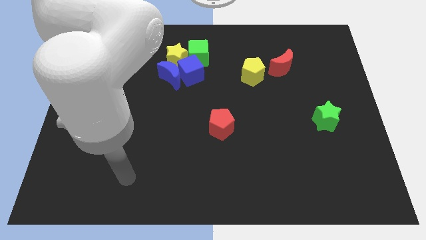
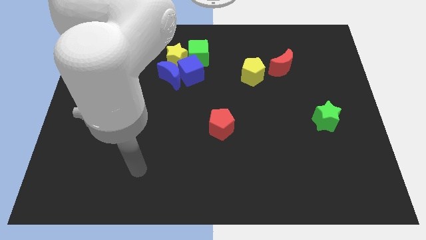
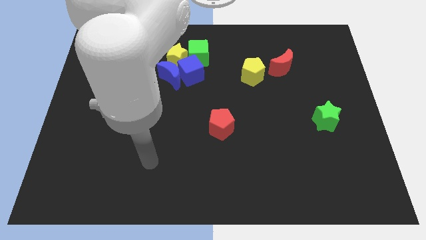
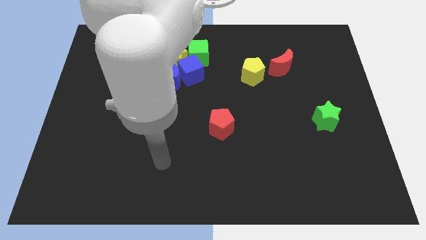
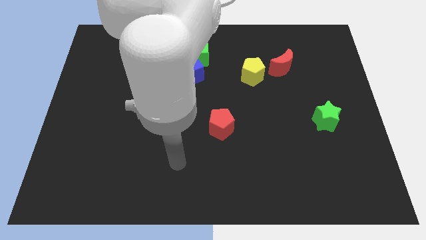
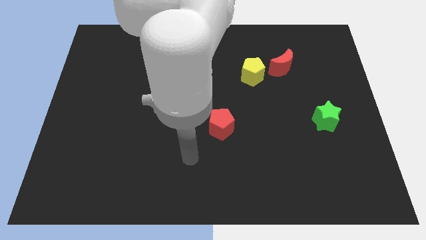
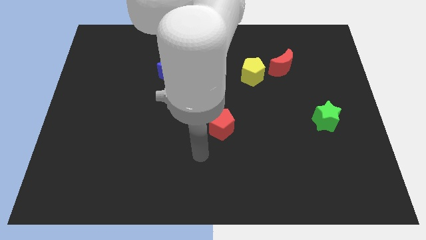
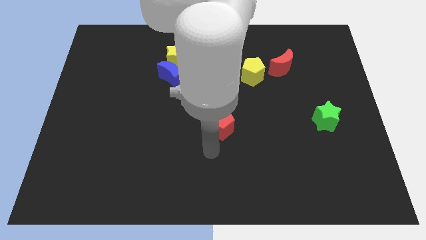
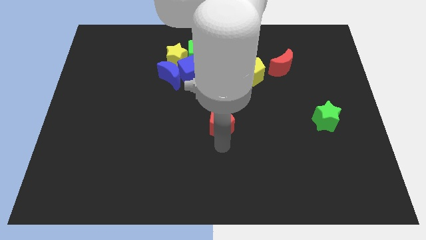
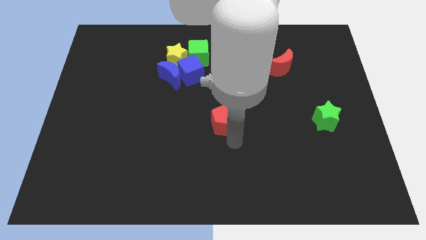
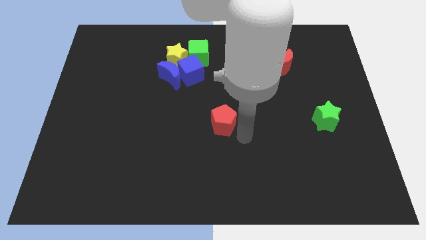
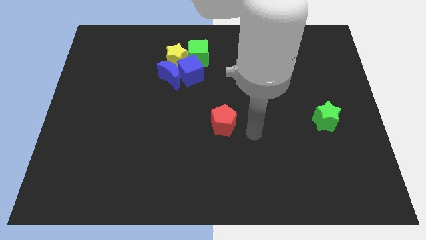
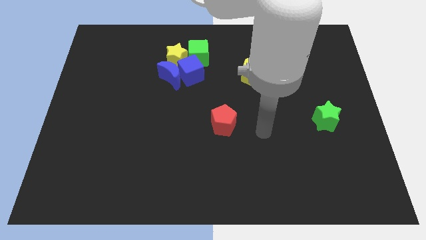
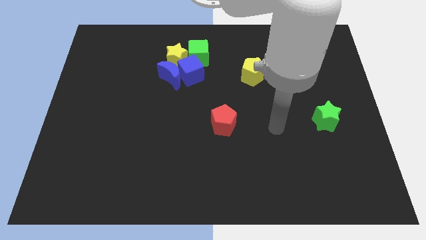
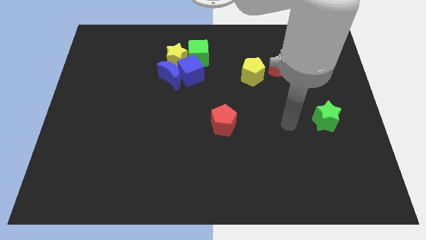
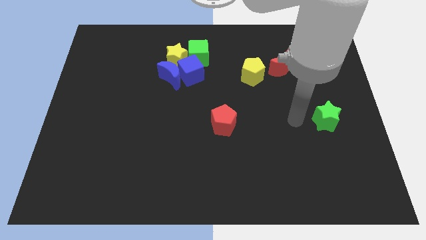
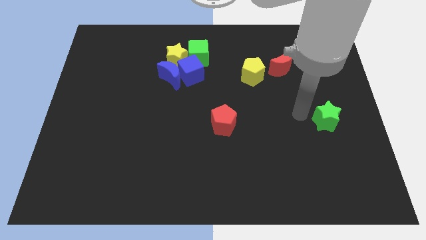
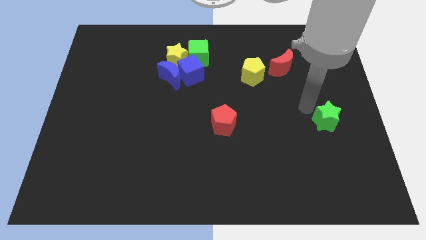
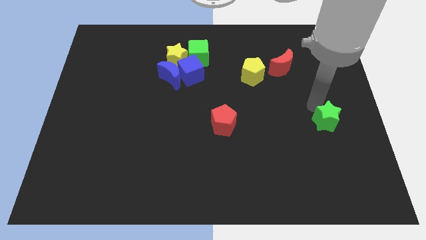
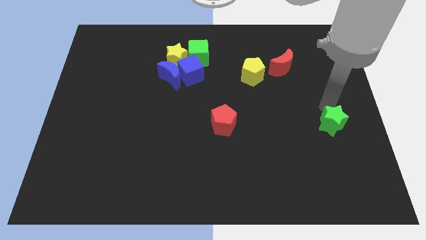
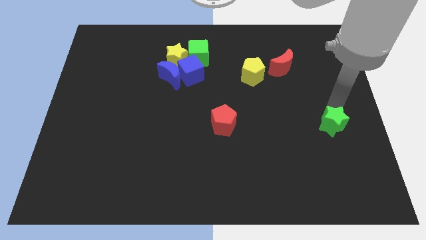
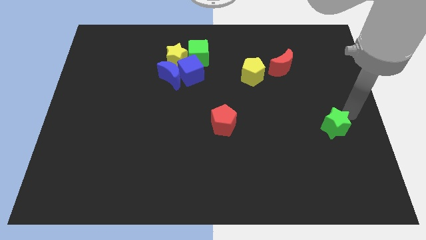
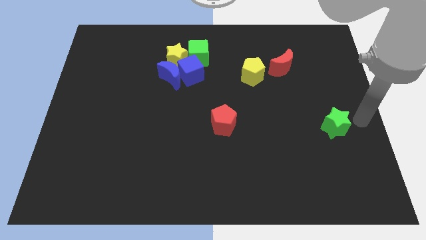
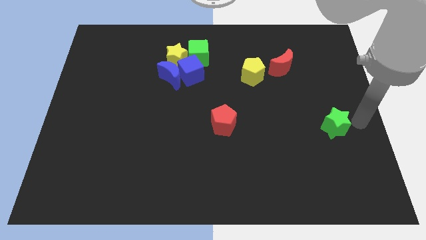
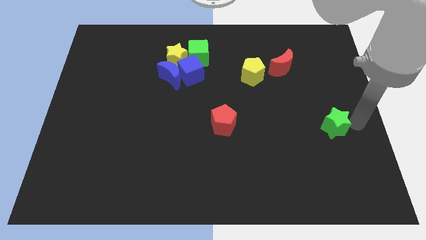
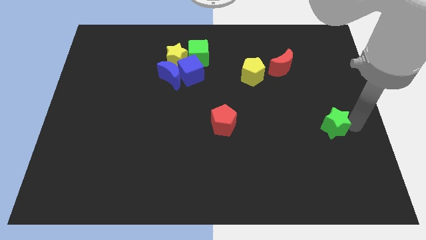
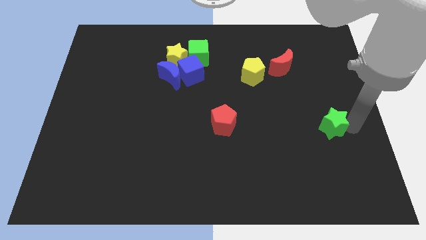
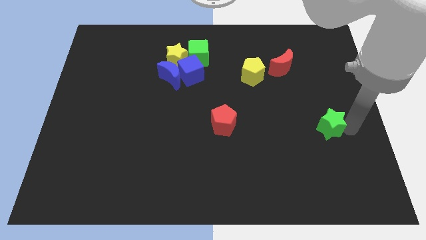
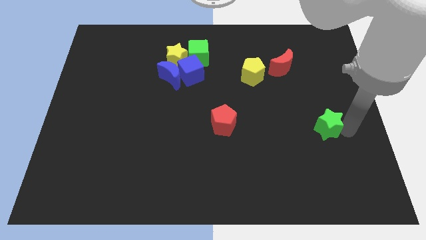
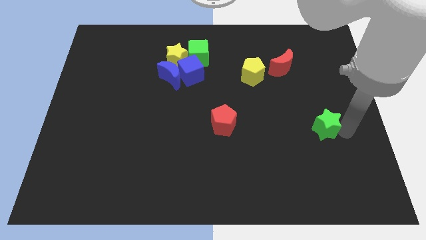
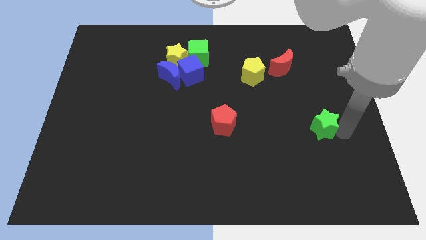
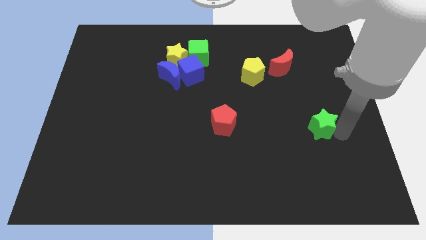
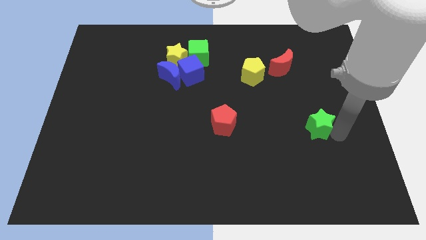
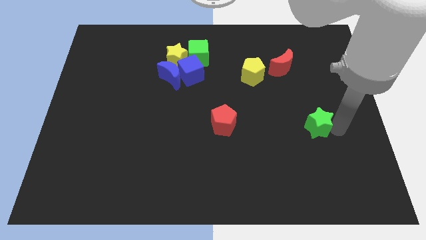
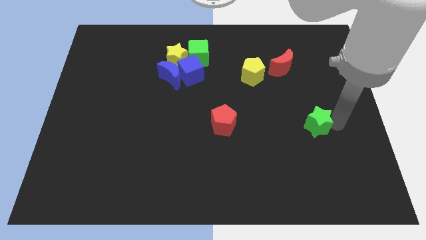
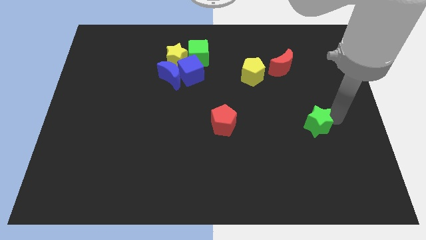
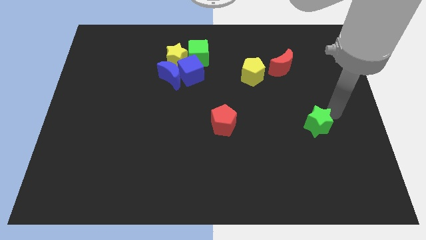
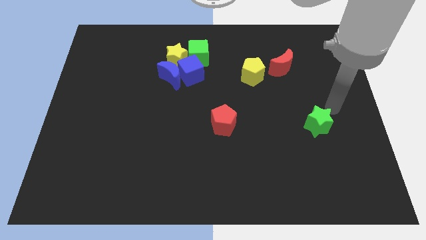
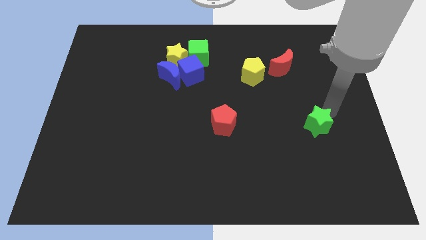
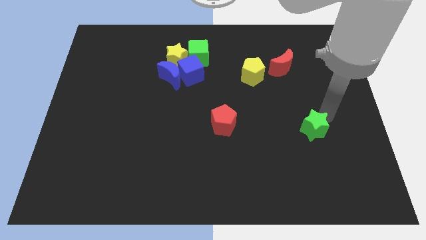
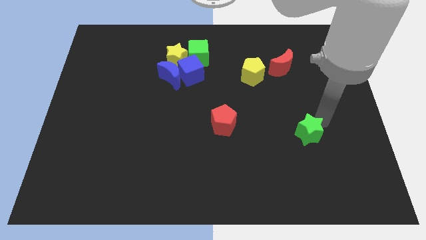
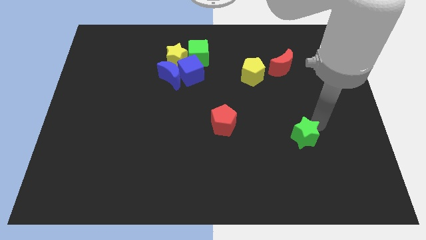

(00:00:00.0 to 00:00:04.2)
move the green star slightly diagonally downwards and left

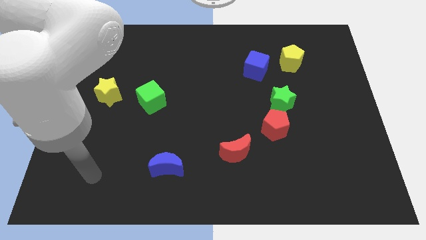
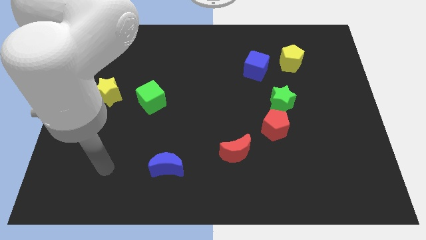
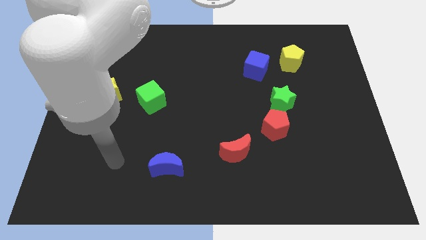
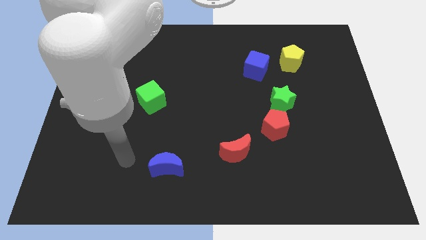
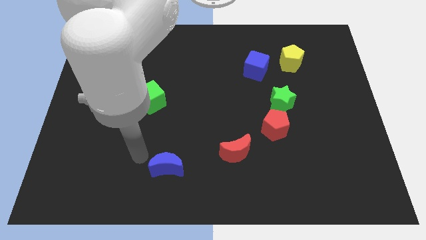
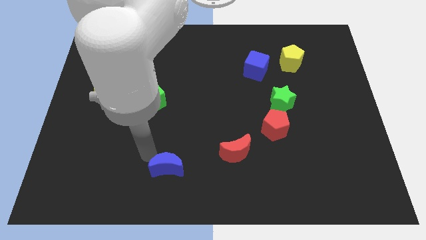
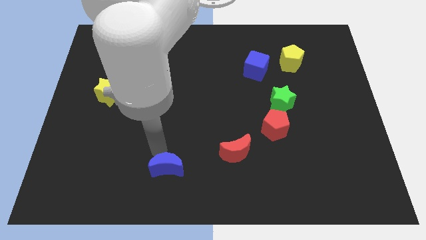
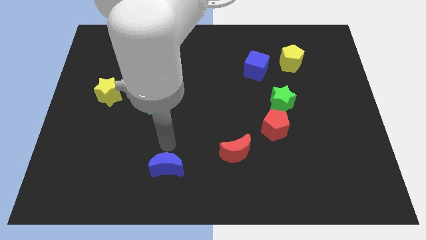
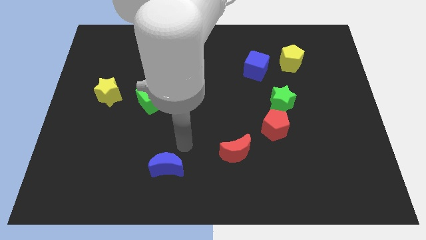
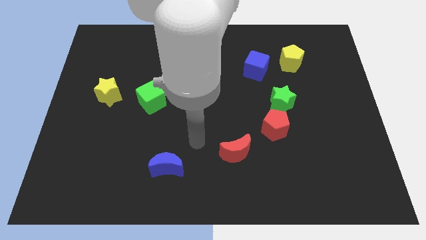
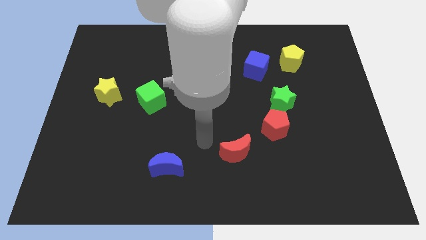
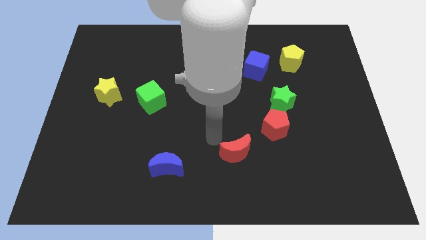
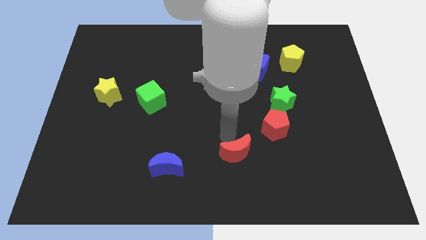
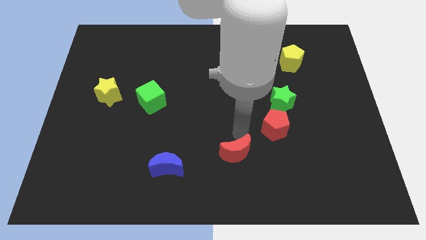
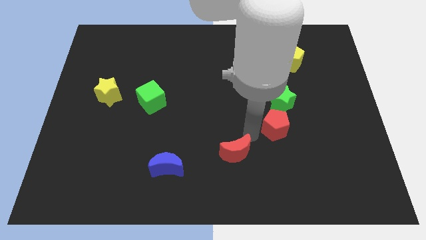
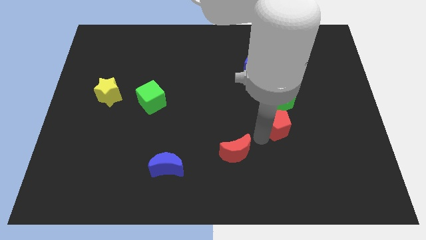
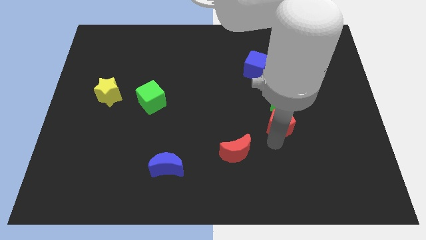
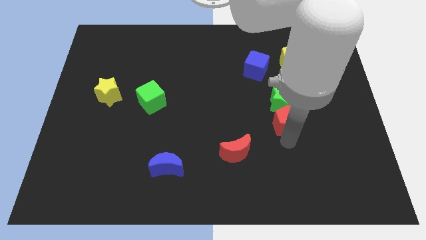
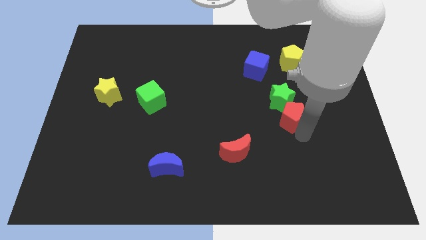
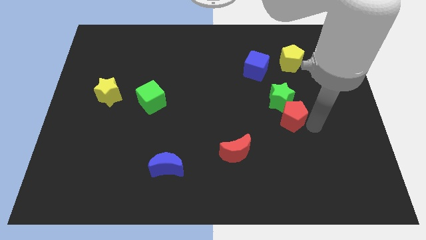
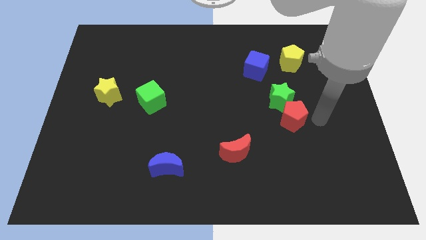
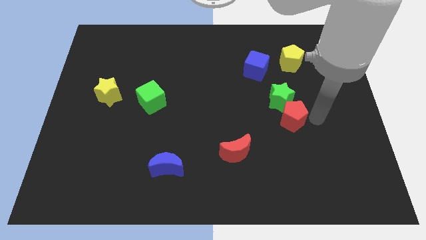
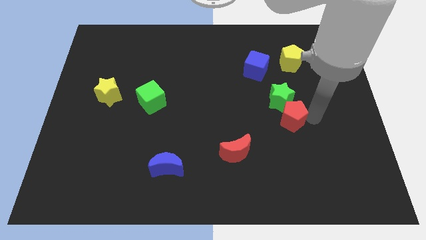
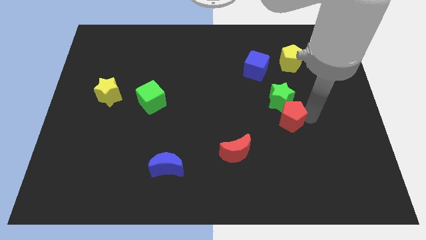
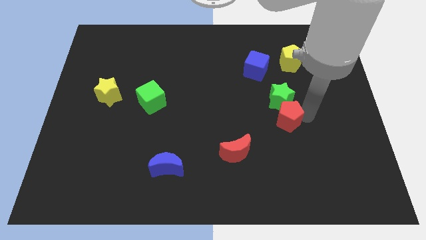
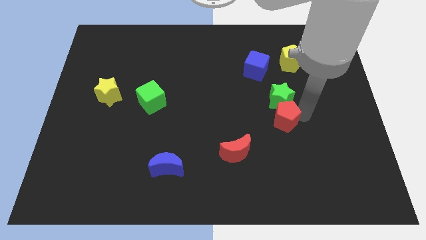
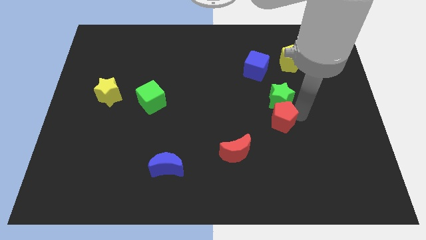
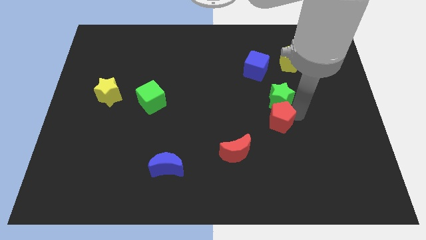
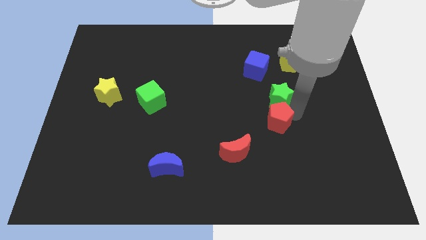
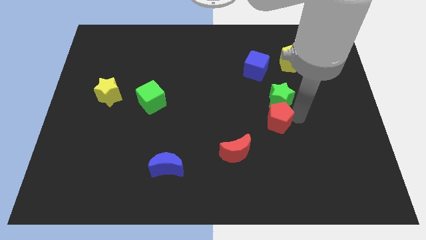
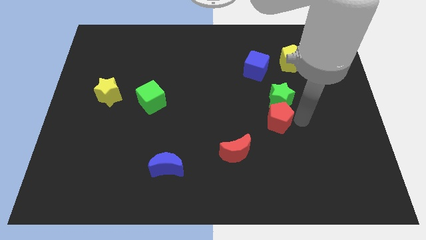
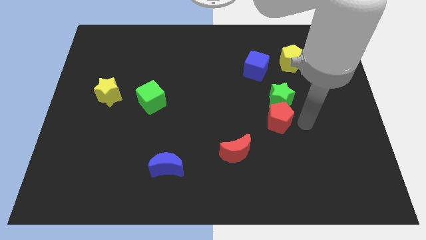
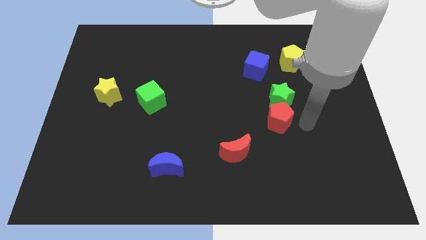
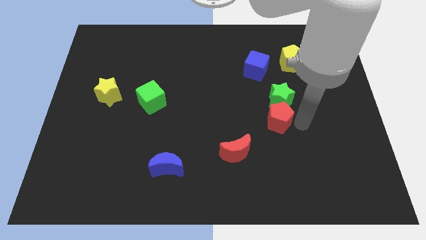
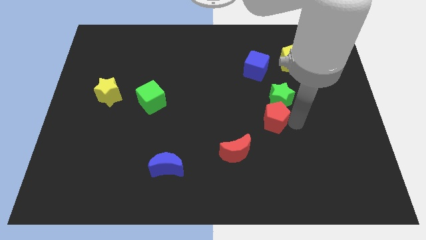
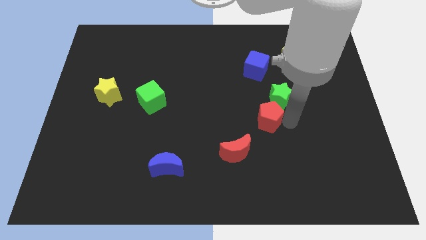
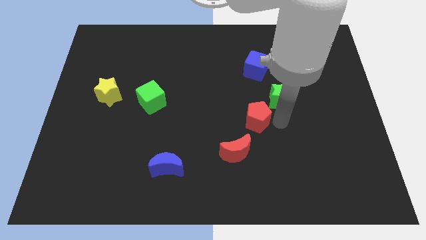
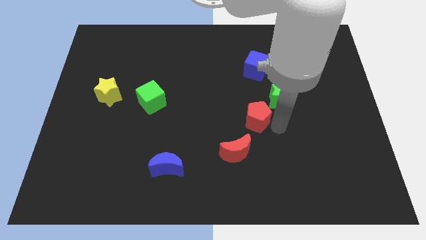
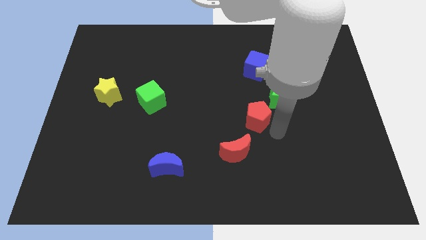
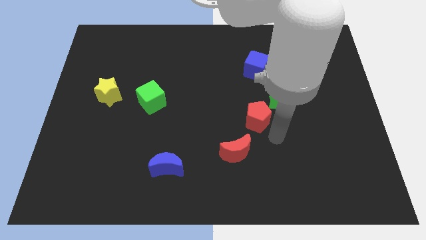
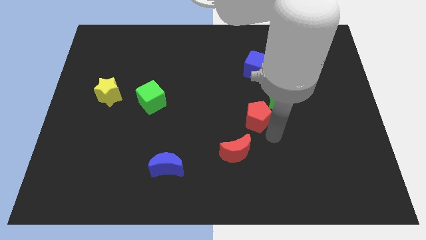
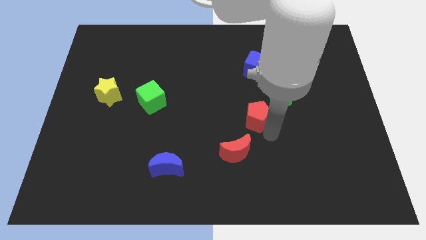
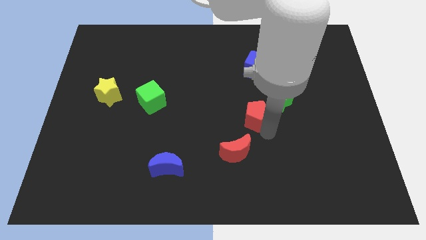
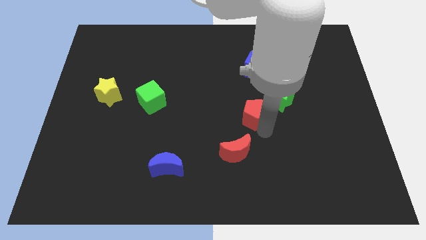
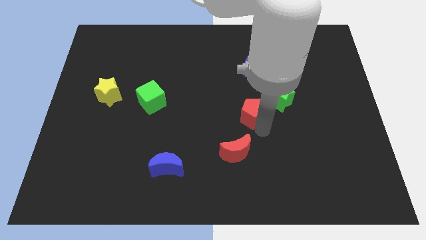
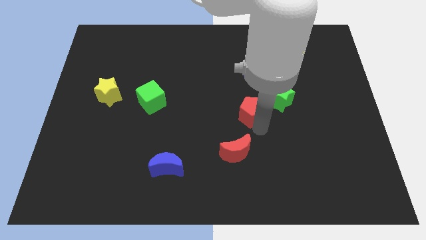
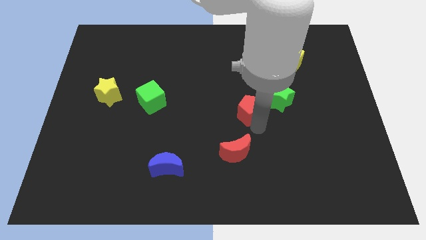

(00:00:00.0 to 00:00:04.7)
push the red pentagon a little bit upwards and to the left
